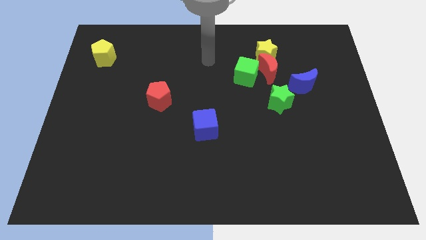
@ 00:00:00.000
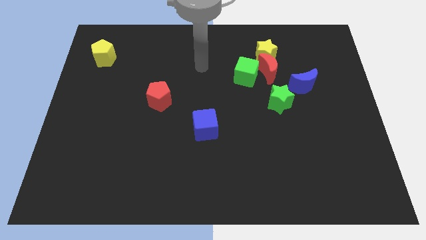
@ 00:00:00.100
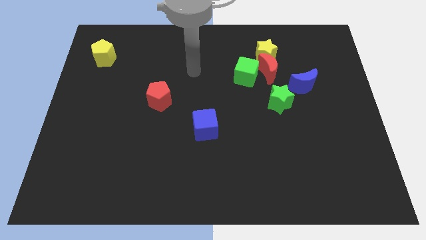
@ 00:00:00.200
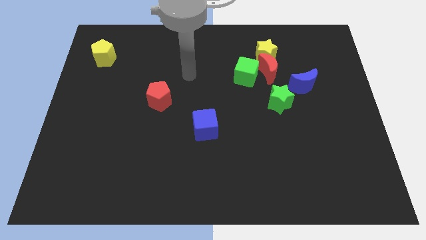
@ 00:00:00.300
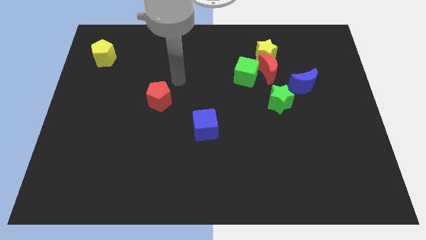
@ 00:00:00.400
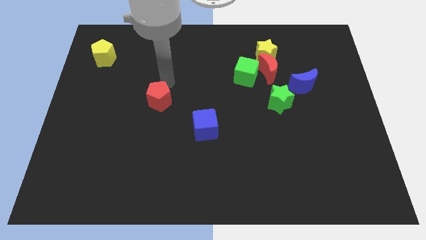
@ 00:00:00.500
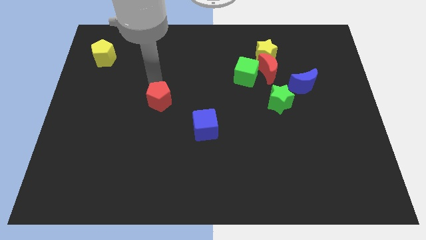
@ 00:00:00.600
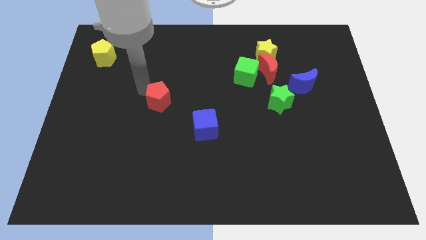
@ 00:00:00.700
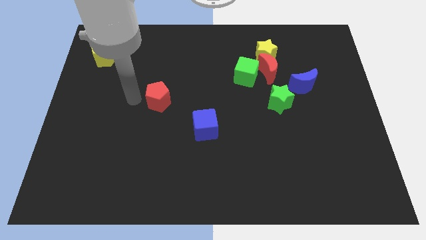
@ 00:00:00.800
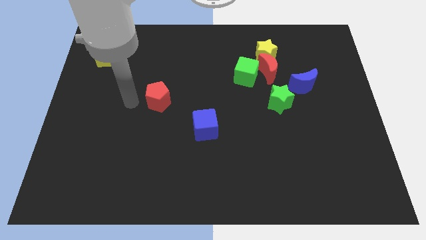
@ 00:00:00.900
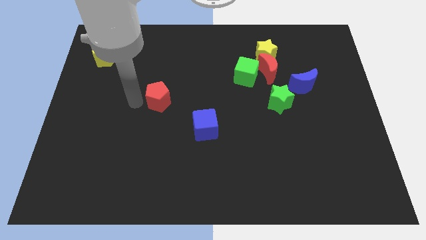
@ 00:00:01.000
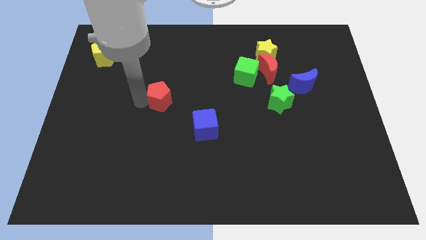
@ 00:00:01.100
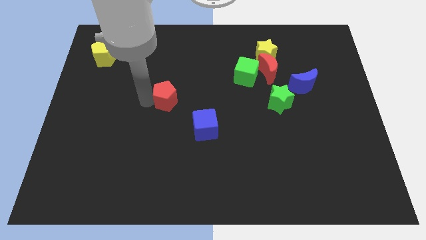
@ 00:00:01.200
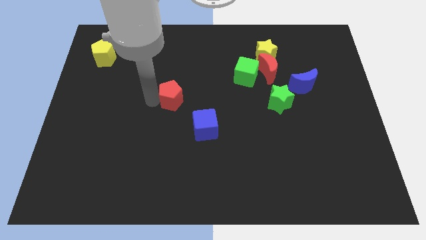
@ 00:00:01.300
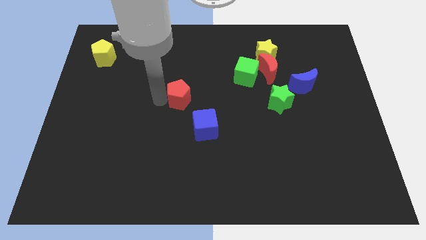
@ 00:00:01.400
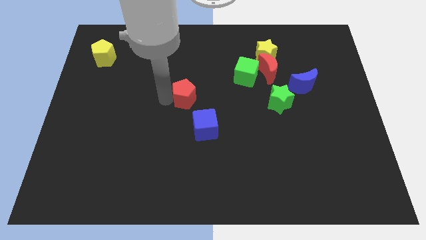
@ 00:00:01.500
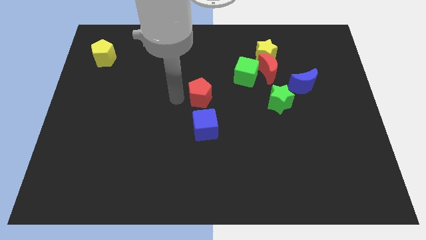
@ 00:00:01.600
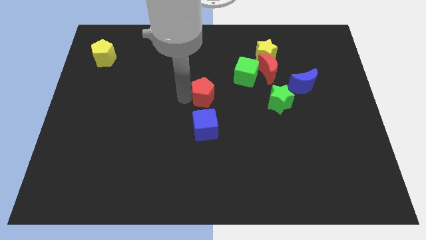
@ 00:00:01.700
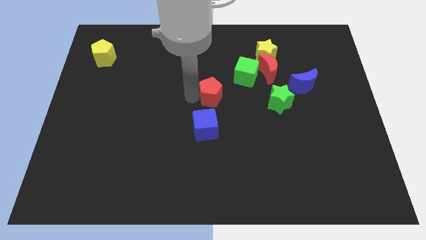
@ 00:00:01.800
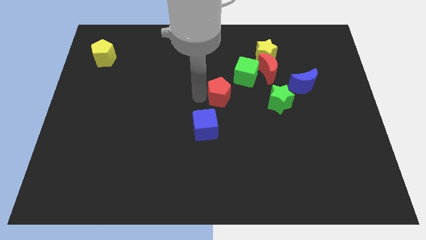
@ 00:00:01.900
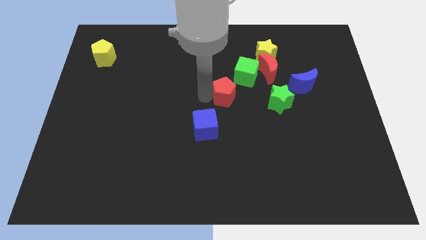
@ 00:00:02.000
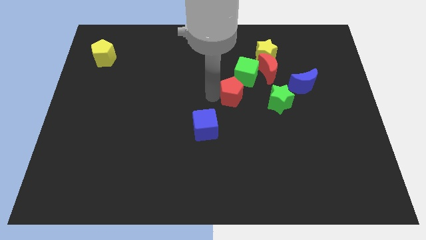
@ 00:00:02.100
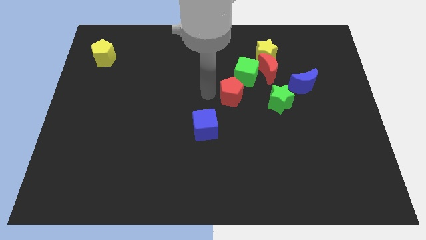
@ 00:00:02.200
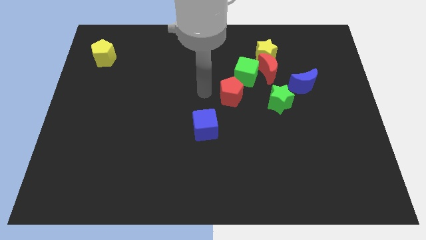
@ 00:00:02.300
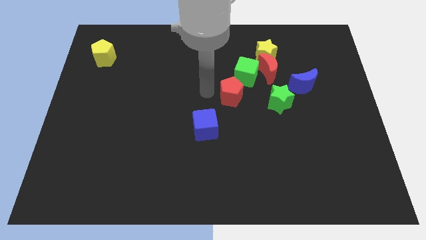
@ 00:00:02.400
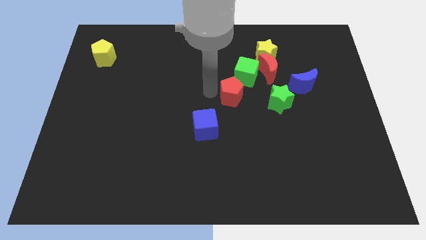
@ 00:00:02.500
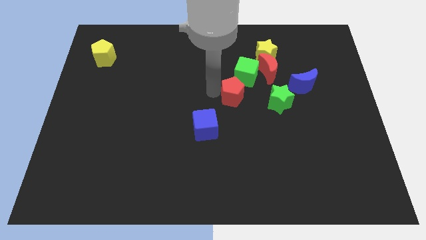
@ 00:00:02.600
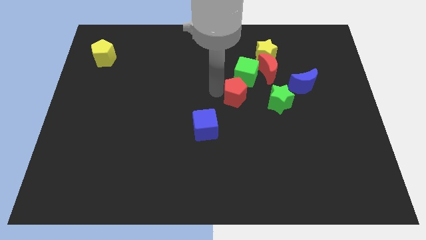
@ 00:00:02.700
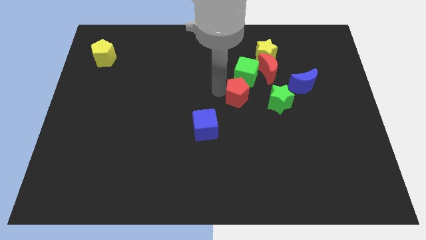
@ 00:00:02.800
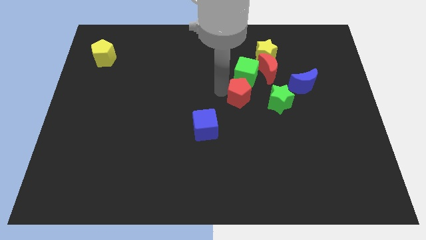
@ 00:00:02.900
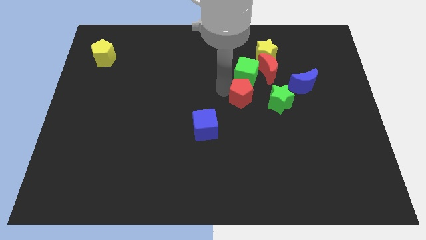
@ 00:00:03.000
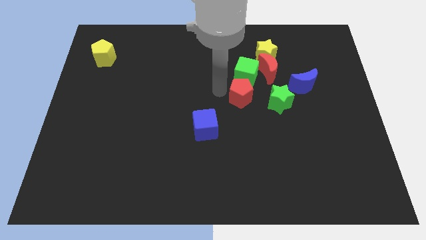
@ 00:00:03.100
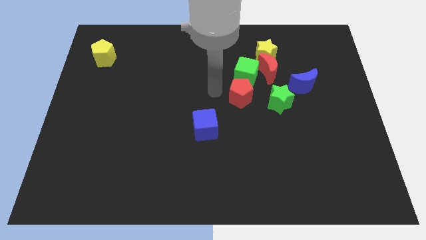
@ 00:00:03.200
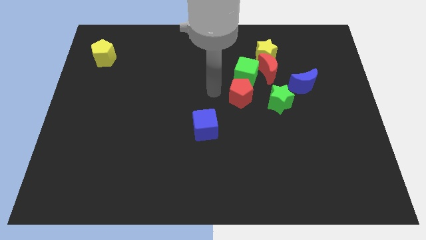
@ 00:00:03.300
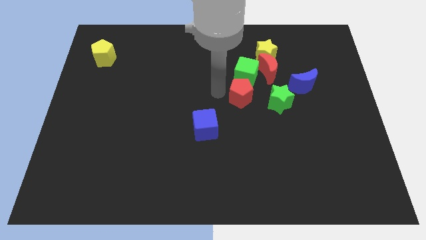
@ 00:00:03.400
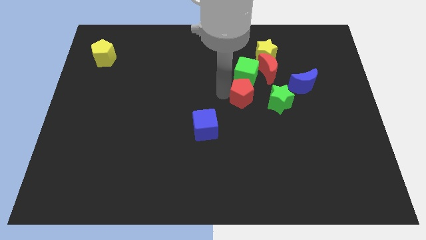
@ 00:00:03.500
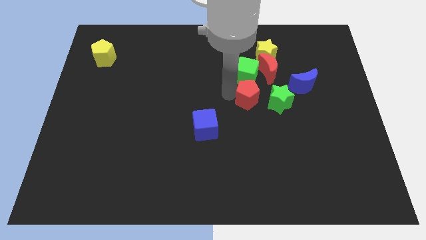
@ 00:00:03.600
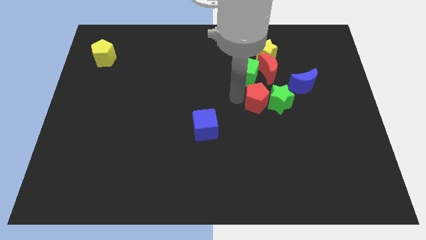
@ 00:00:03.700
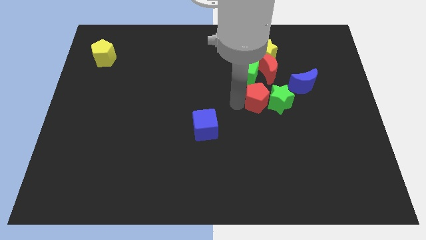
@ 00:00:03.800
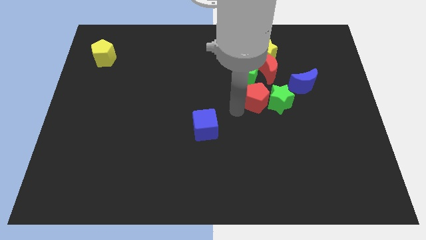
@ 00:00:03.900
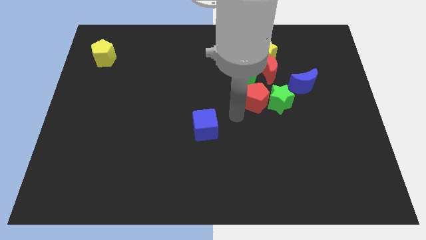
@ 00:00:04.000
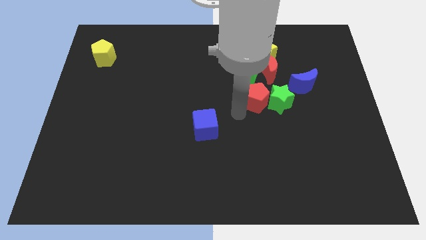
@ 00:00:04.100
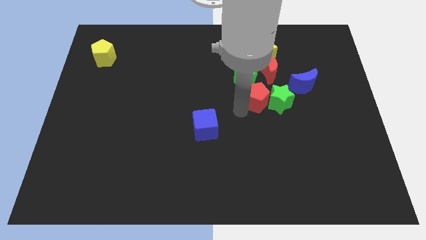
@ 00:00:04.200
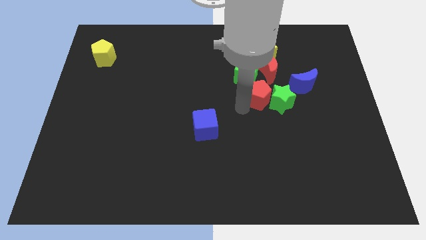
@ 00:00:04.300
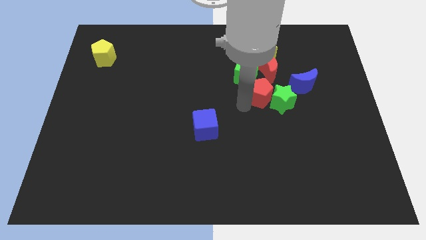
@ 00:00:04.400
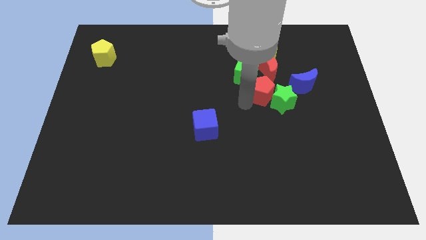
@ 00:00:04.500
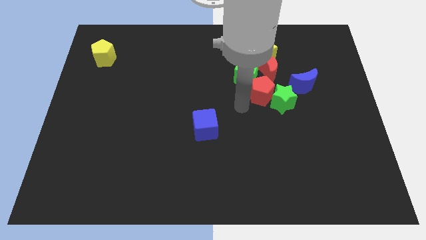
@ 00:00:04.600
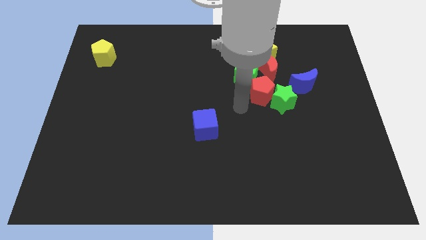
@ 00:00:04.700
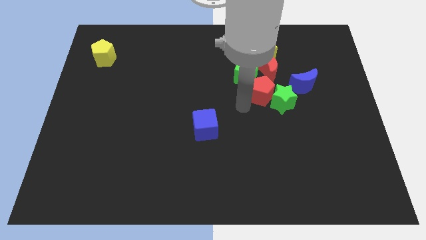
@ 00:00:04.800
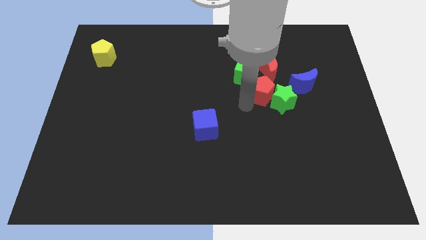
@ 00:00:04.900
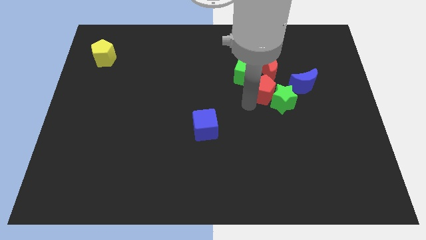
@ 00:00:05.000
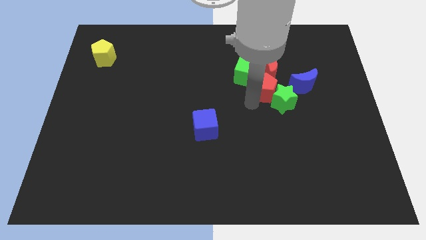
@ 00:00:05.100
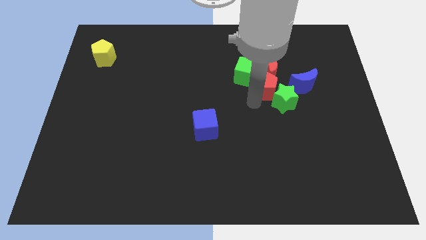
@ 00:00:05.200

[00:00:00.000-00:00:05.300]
put the red pentagon right of the green cube

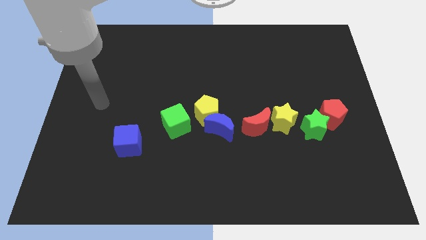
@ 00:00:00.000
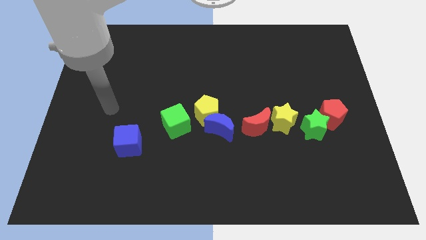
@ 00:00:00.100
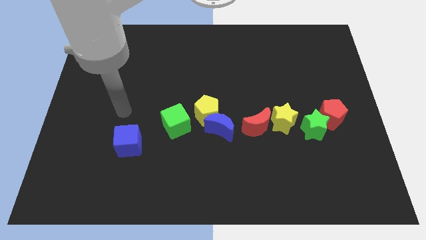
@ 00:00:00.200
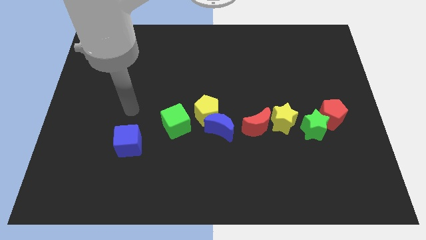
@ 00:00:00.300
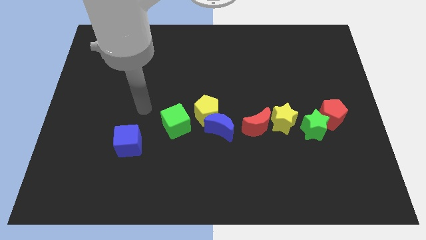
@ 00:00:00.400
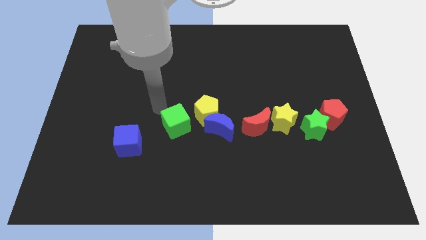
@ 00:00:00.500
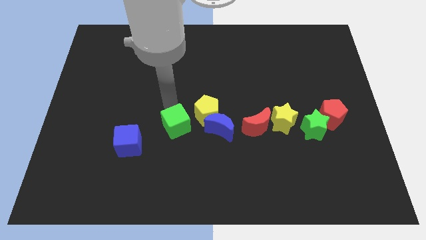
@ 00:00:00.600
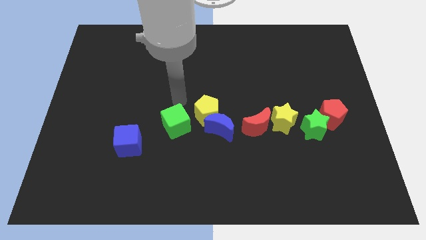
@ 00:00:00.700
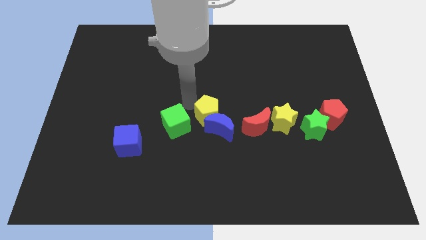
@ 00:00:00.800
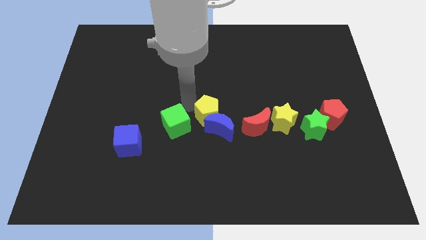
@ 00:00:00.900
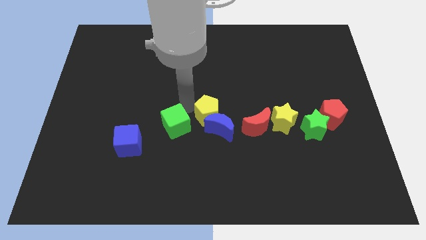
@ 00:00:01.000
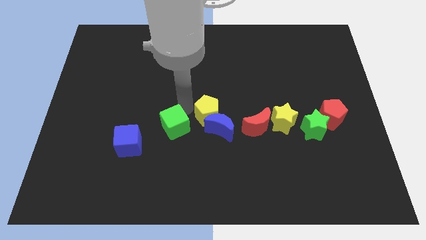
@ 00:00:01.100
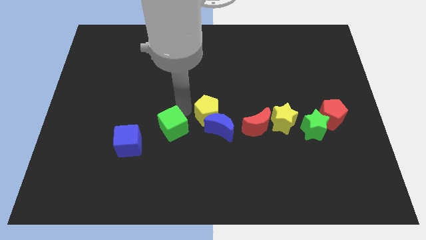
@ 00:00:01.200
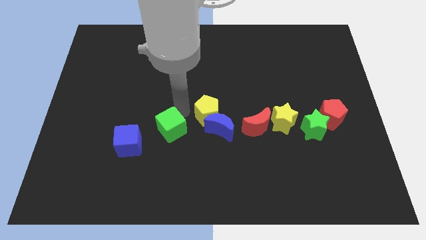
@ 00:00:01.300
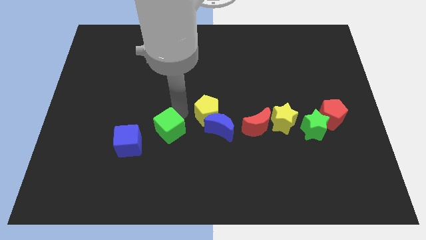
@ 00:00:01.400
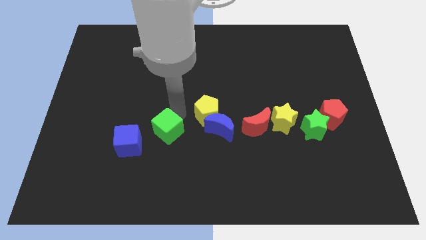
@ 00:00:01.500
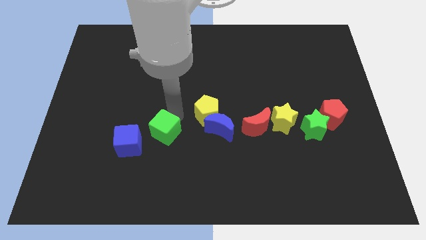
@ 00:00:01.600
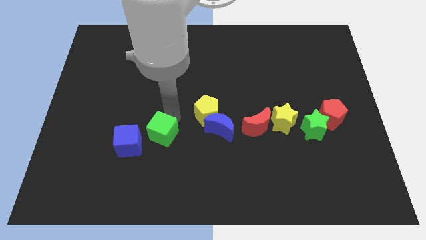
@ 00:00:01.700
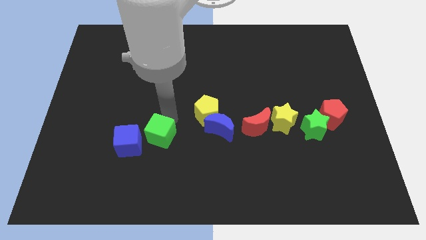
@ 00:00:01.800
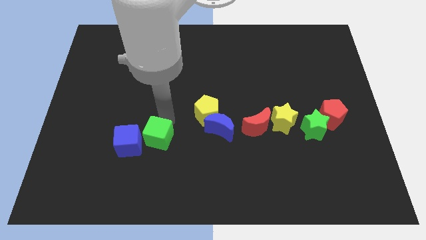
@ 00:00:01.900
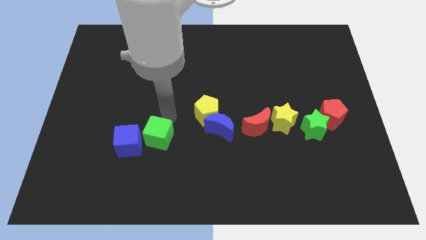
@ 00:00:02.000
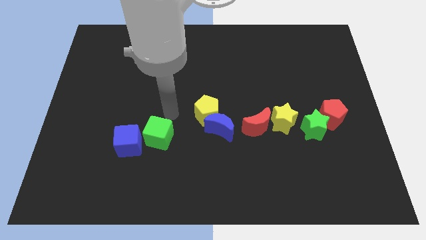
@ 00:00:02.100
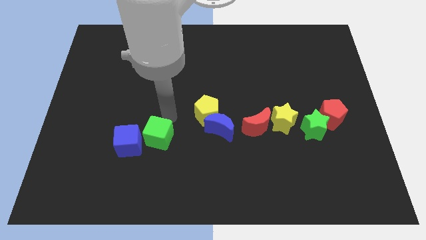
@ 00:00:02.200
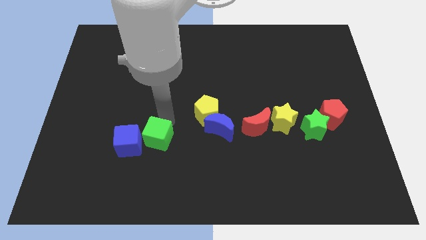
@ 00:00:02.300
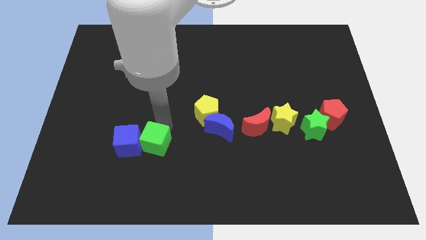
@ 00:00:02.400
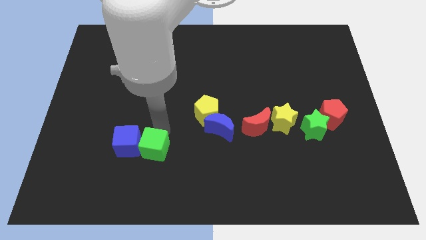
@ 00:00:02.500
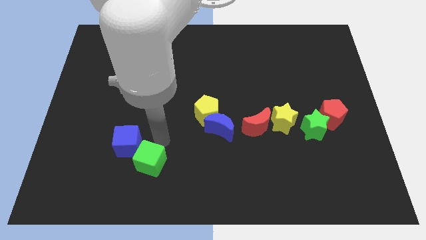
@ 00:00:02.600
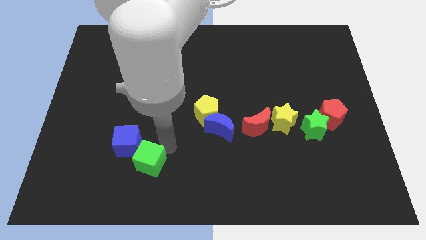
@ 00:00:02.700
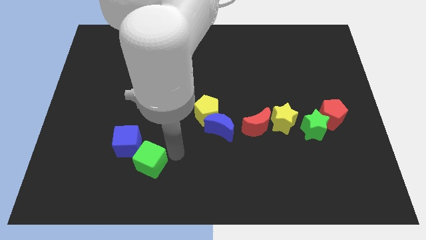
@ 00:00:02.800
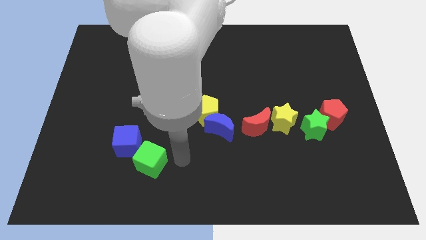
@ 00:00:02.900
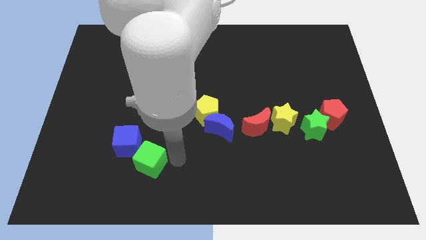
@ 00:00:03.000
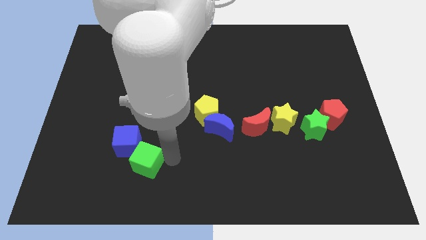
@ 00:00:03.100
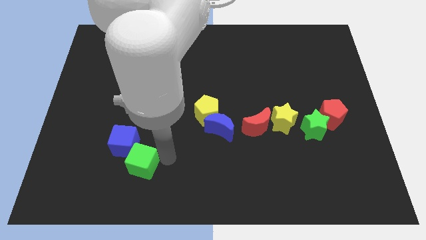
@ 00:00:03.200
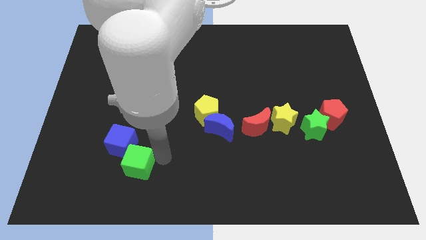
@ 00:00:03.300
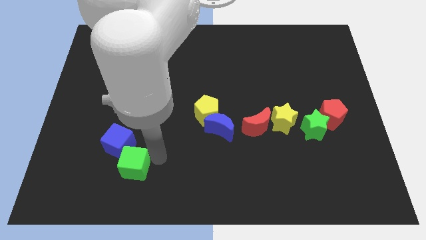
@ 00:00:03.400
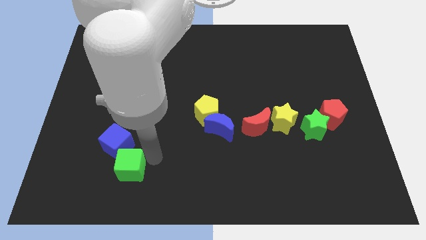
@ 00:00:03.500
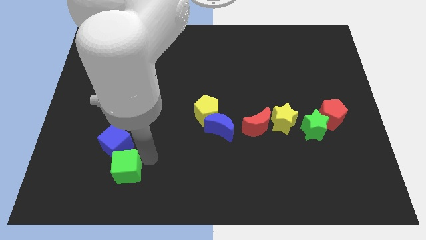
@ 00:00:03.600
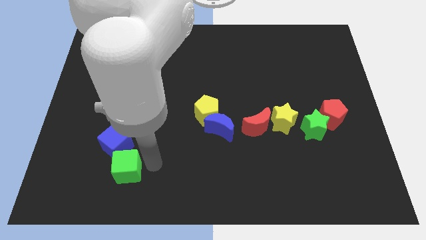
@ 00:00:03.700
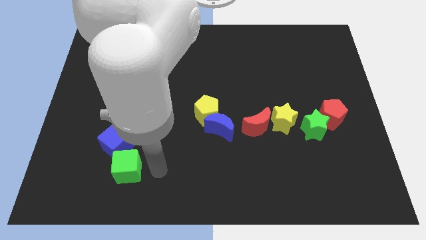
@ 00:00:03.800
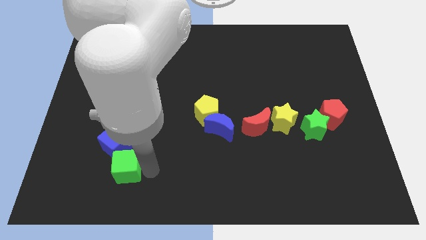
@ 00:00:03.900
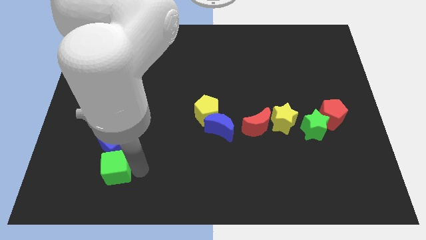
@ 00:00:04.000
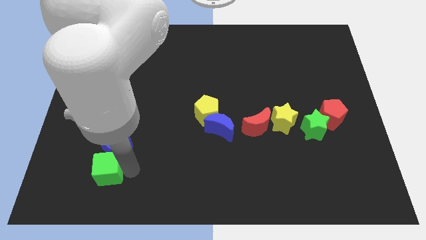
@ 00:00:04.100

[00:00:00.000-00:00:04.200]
put the green cube to the bottom left of the blue cube
